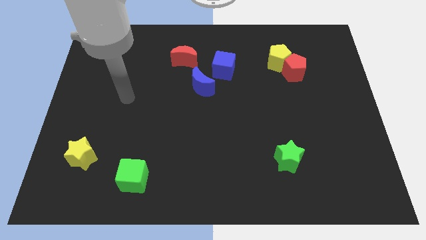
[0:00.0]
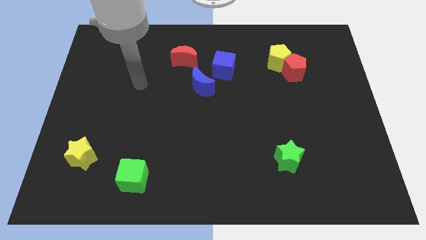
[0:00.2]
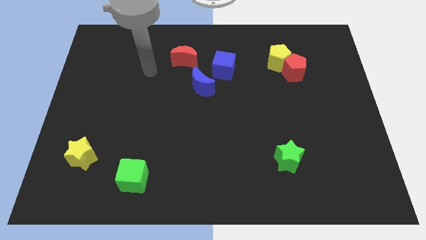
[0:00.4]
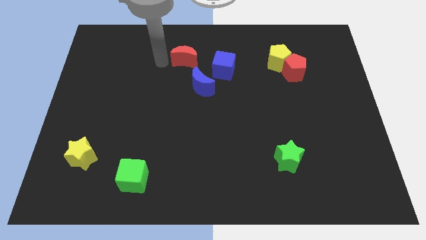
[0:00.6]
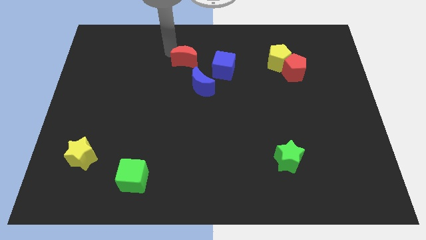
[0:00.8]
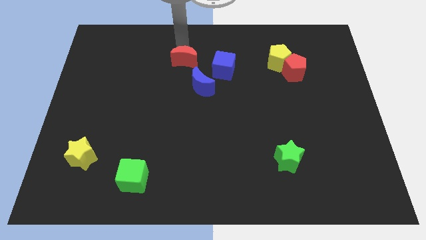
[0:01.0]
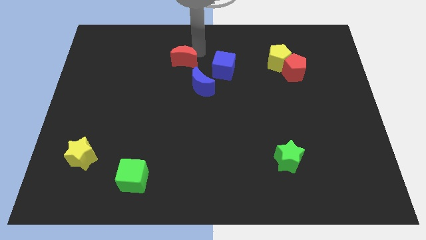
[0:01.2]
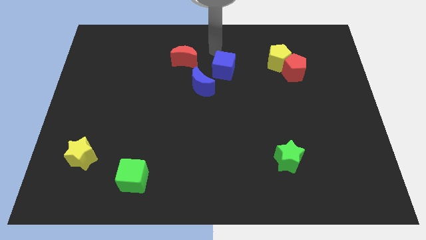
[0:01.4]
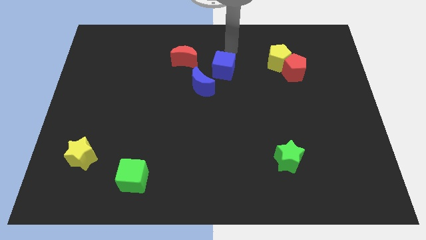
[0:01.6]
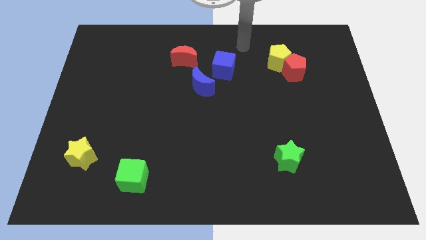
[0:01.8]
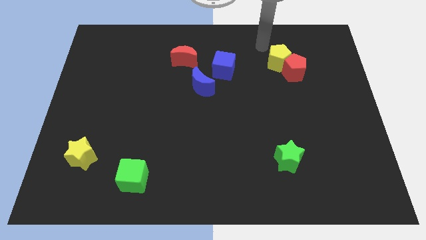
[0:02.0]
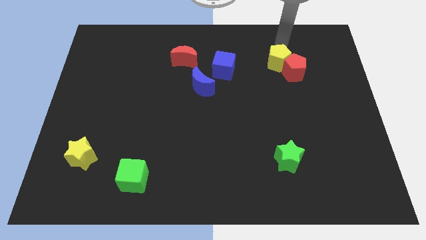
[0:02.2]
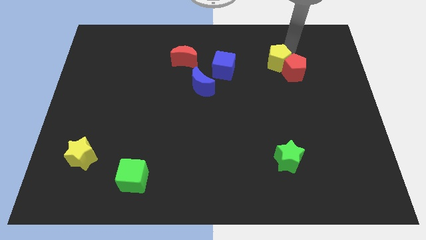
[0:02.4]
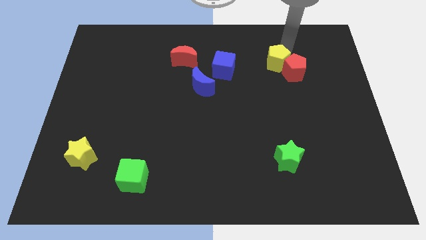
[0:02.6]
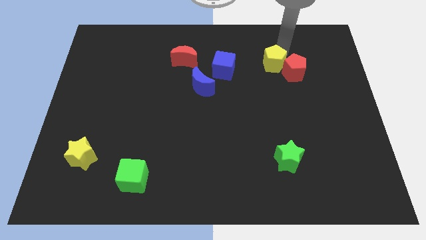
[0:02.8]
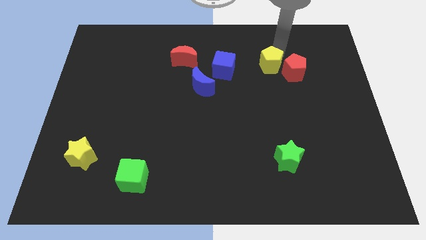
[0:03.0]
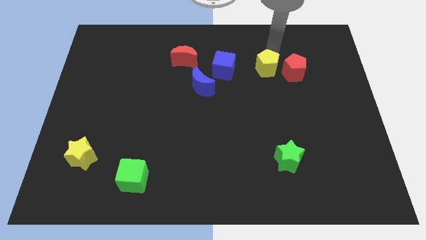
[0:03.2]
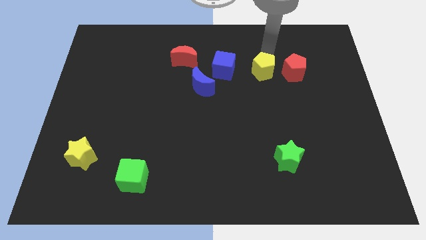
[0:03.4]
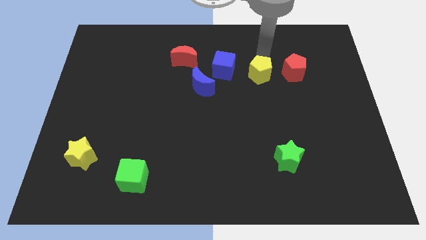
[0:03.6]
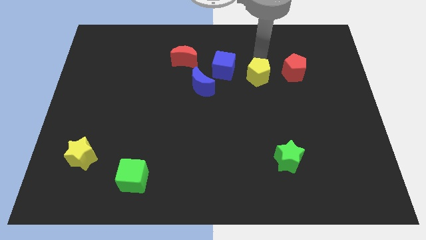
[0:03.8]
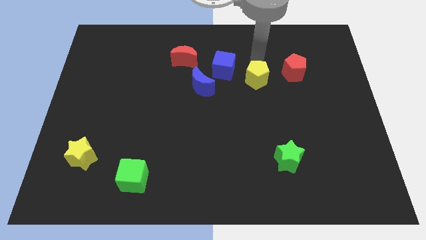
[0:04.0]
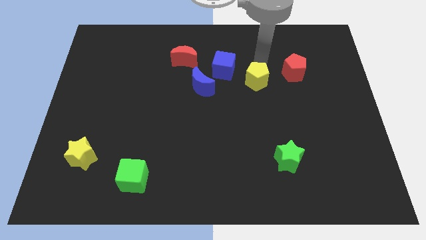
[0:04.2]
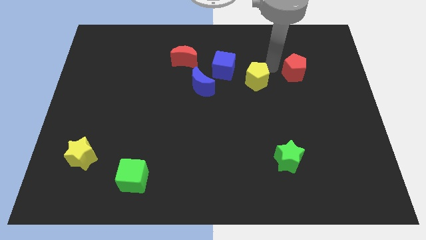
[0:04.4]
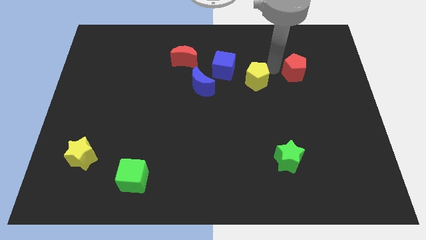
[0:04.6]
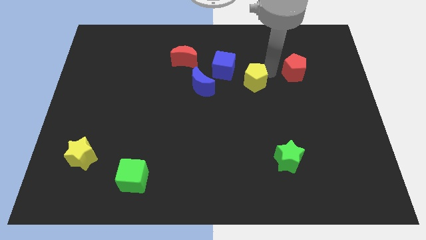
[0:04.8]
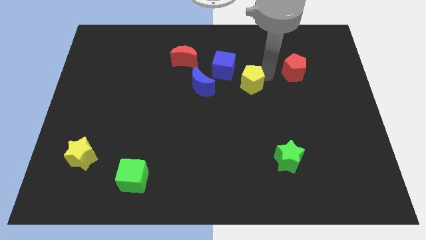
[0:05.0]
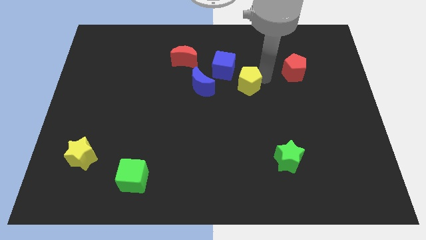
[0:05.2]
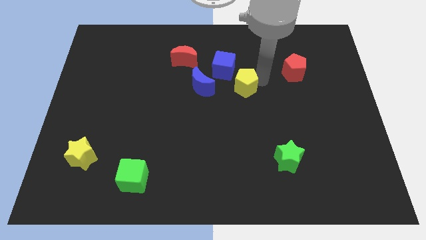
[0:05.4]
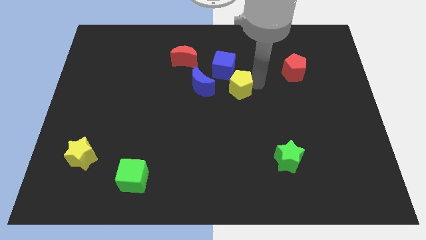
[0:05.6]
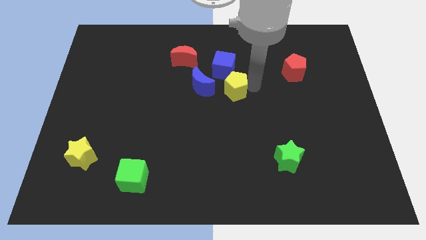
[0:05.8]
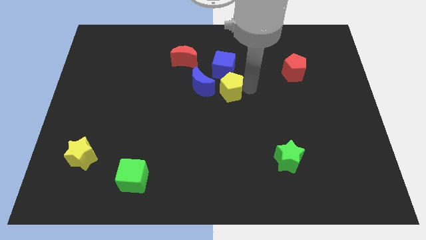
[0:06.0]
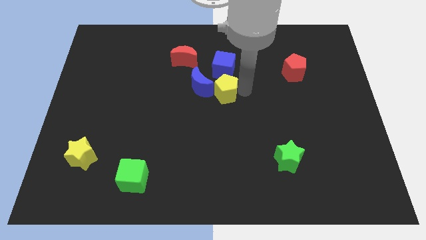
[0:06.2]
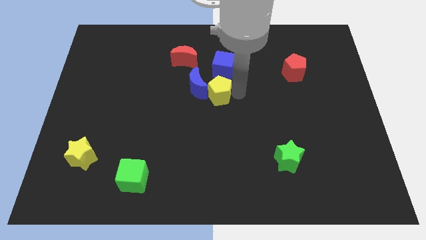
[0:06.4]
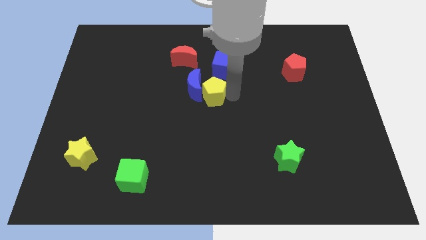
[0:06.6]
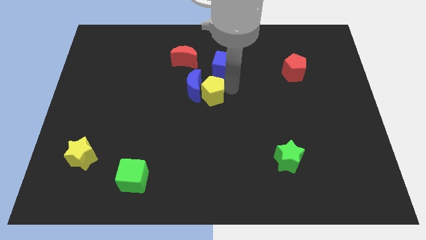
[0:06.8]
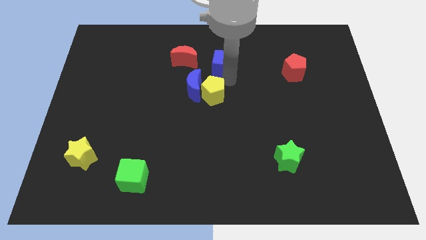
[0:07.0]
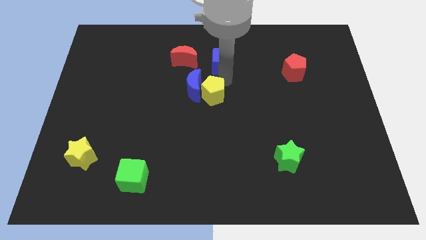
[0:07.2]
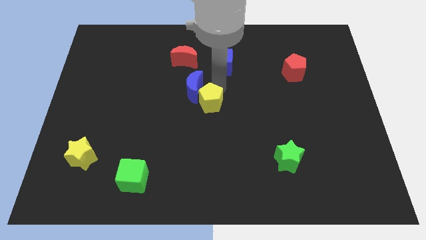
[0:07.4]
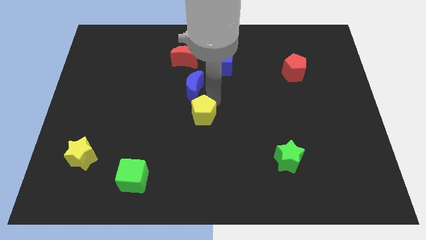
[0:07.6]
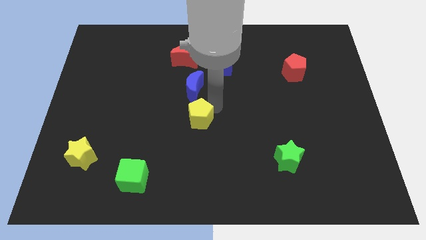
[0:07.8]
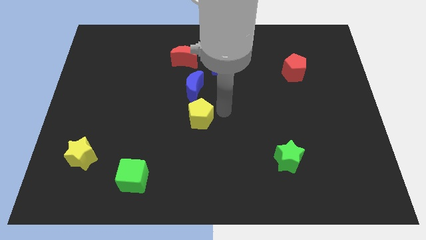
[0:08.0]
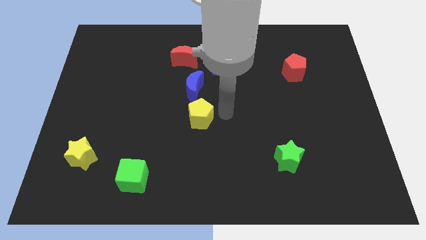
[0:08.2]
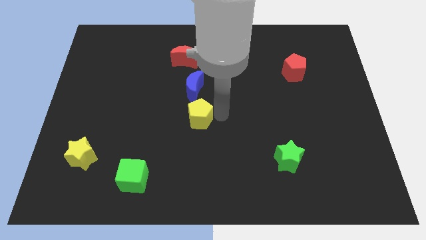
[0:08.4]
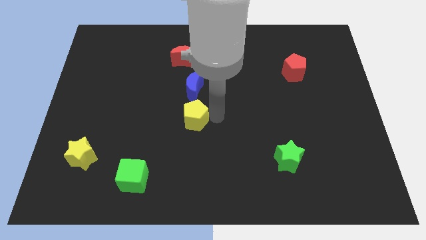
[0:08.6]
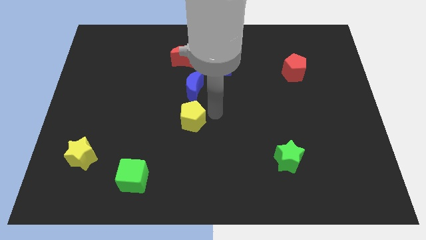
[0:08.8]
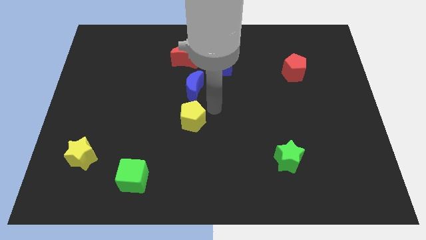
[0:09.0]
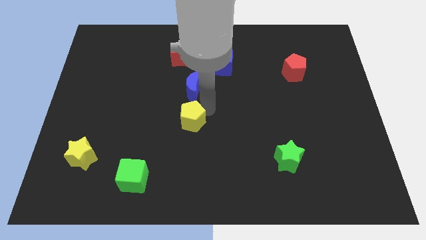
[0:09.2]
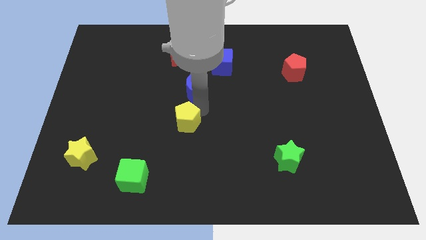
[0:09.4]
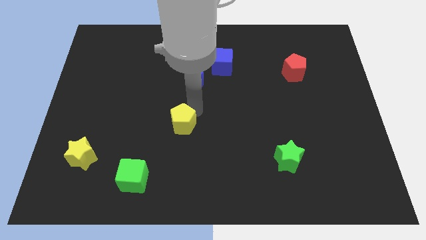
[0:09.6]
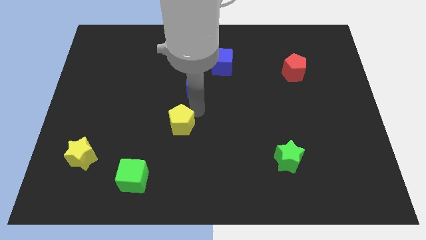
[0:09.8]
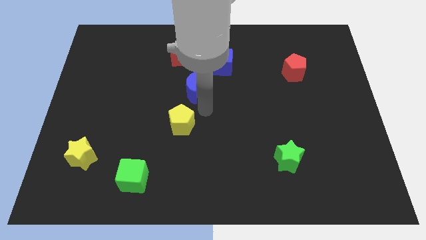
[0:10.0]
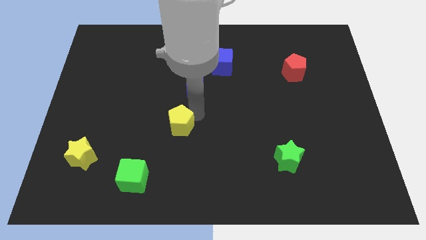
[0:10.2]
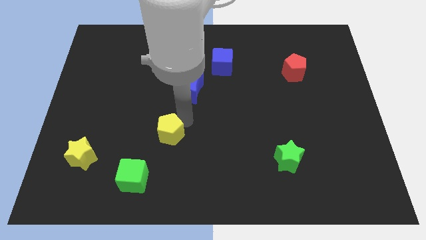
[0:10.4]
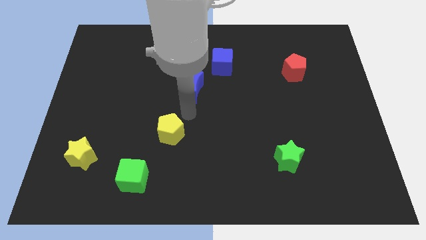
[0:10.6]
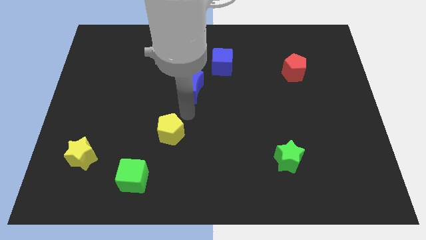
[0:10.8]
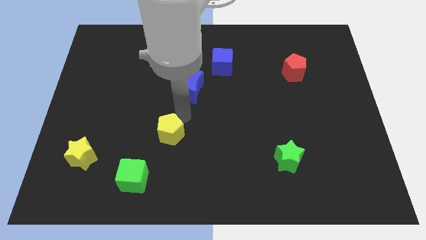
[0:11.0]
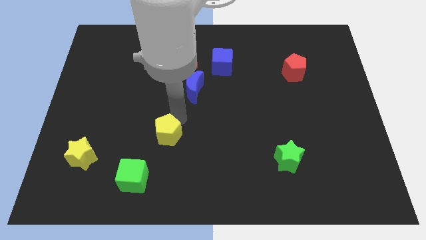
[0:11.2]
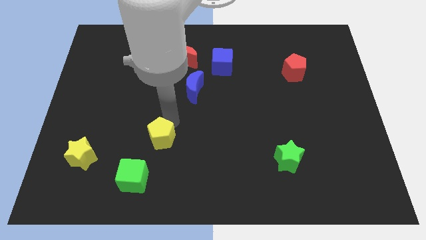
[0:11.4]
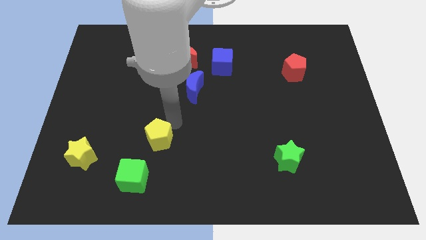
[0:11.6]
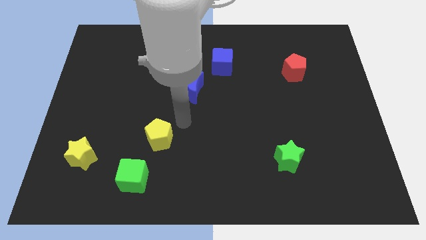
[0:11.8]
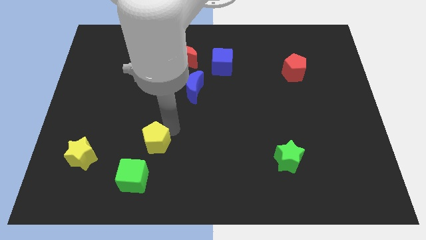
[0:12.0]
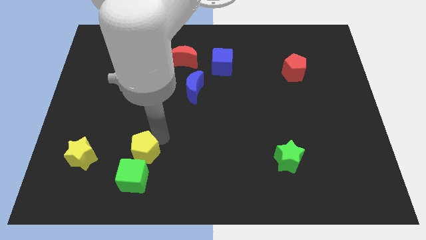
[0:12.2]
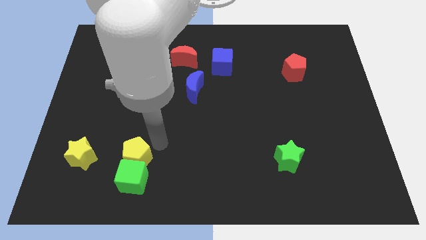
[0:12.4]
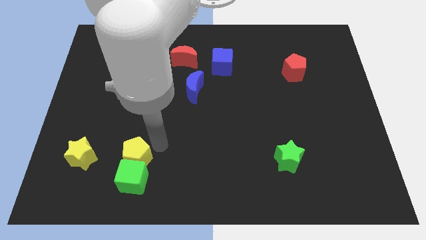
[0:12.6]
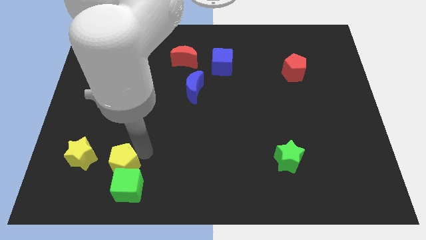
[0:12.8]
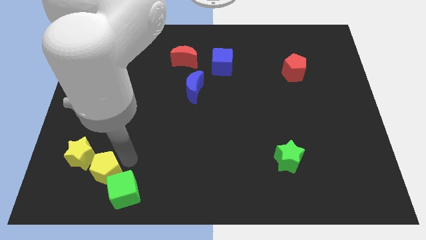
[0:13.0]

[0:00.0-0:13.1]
put the yellow pentagon left of the green cube

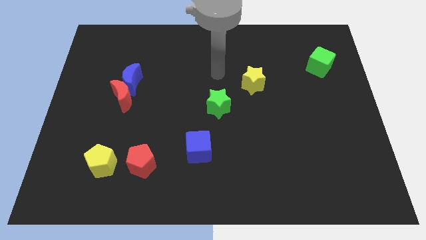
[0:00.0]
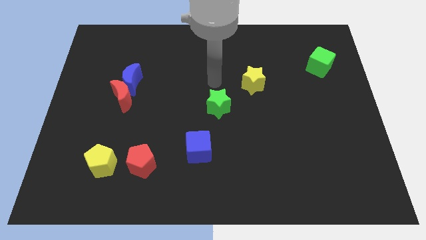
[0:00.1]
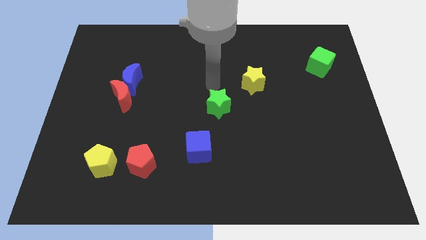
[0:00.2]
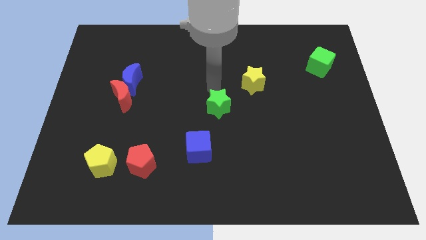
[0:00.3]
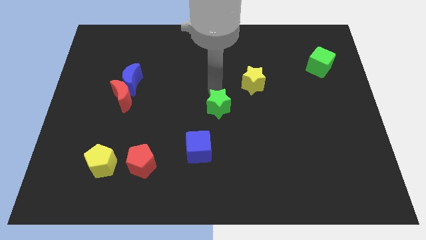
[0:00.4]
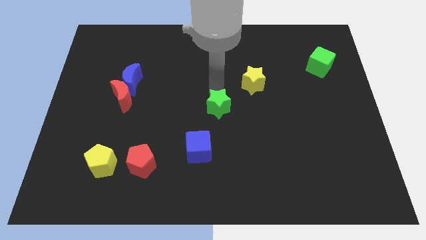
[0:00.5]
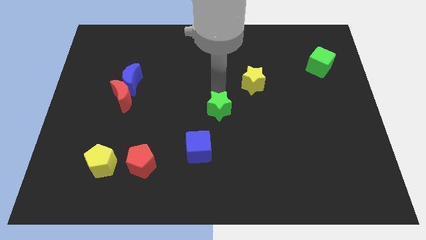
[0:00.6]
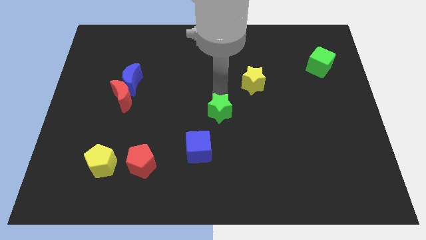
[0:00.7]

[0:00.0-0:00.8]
move the green star to the top right of the blue cube
